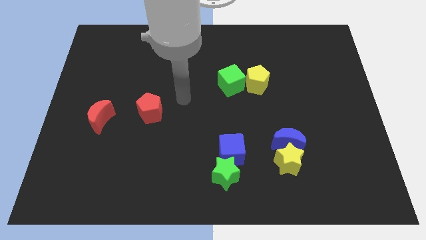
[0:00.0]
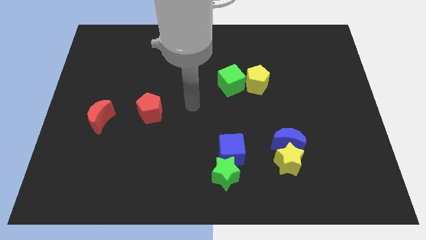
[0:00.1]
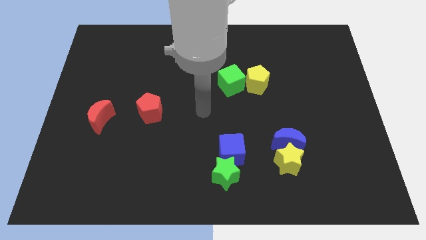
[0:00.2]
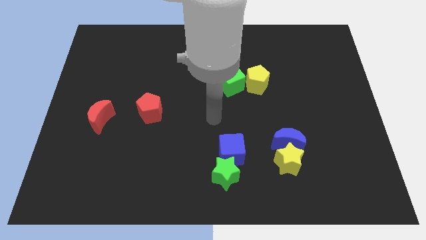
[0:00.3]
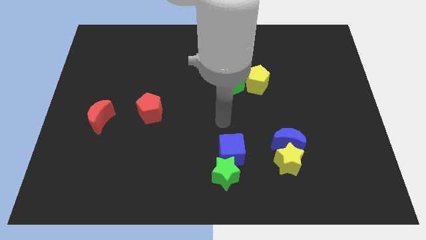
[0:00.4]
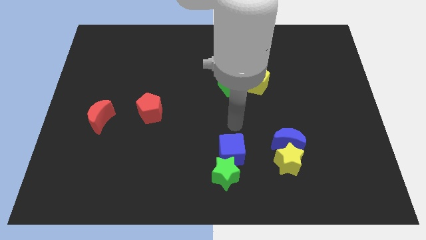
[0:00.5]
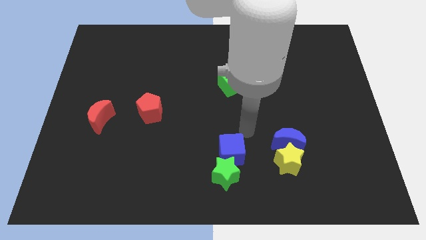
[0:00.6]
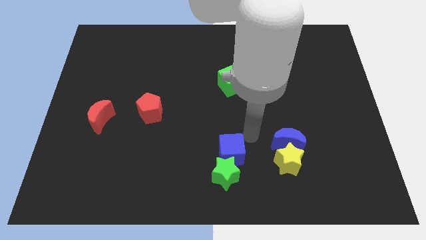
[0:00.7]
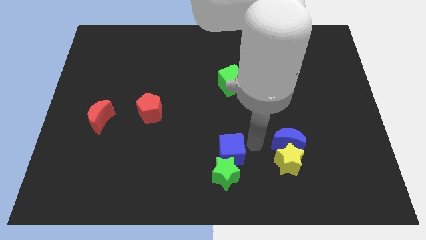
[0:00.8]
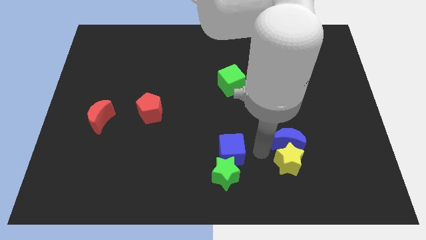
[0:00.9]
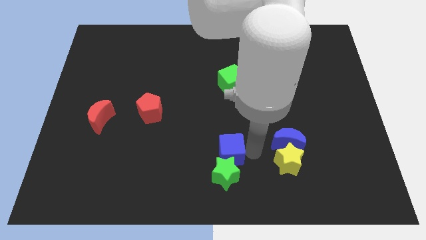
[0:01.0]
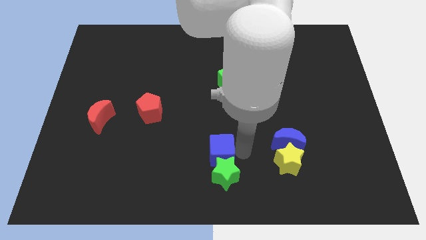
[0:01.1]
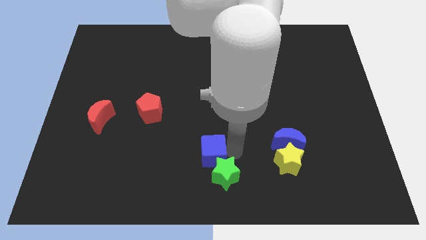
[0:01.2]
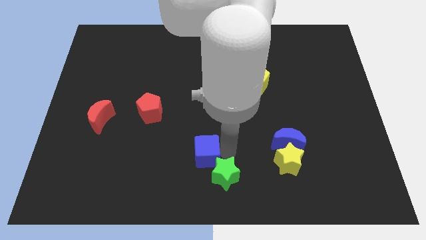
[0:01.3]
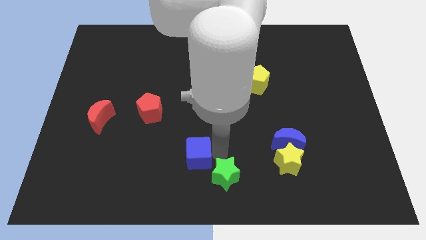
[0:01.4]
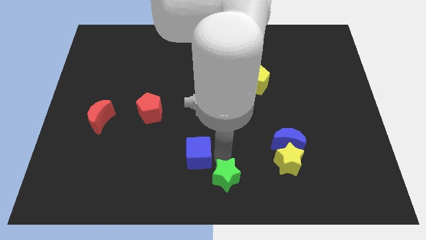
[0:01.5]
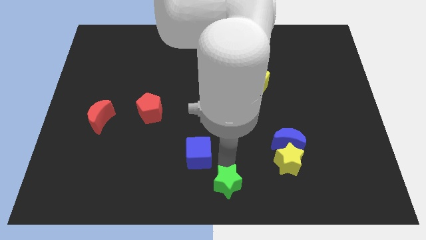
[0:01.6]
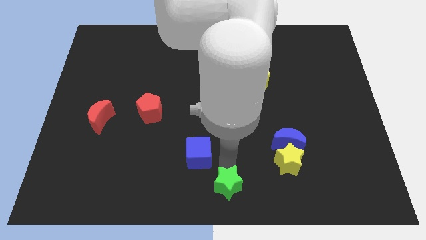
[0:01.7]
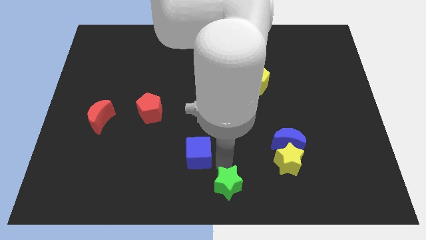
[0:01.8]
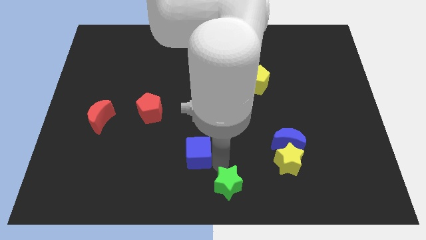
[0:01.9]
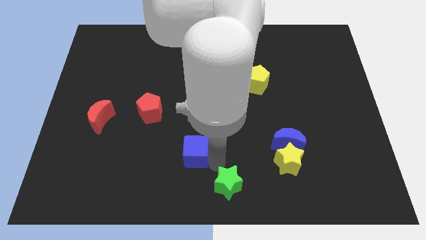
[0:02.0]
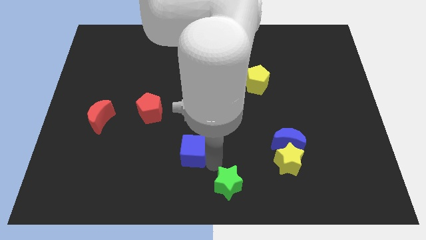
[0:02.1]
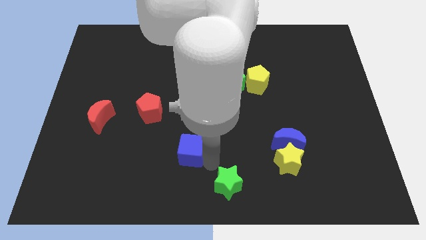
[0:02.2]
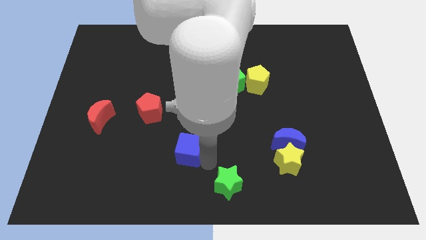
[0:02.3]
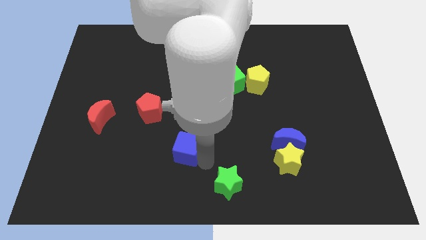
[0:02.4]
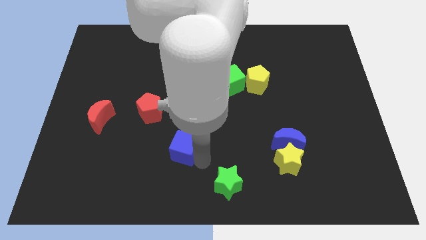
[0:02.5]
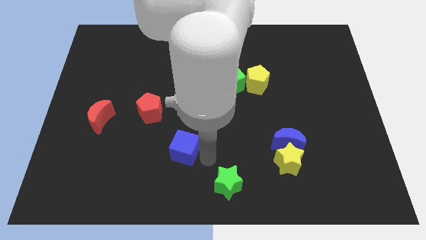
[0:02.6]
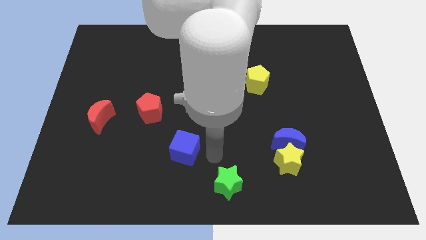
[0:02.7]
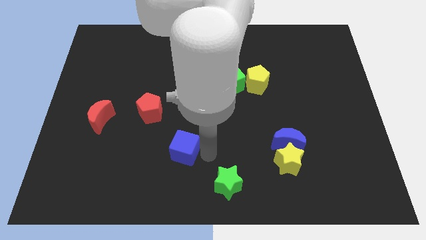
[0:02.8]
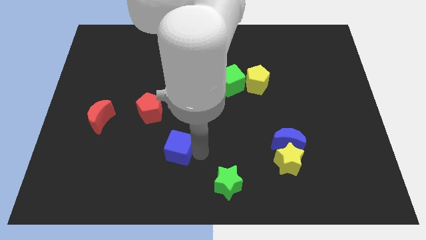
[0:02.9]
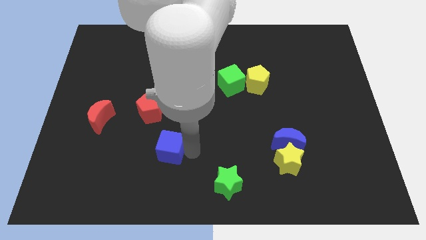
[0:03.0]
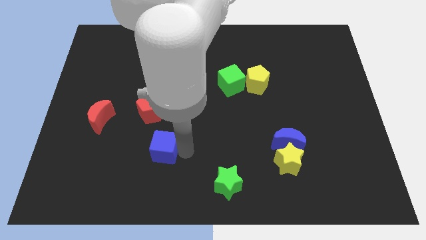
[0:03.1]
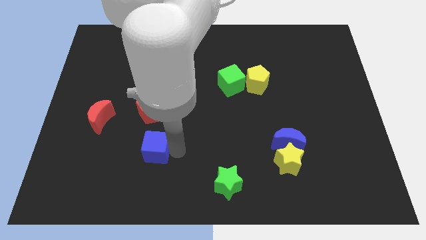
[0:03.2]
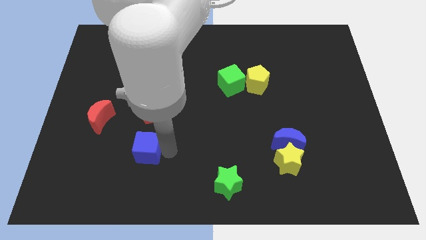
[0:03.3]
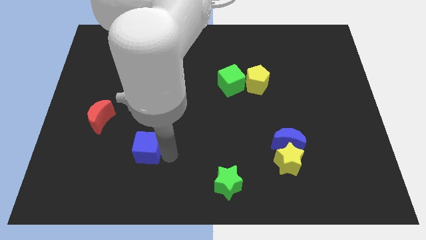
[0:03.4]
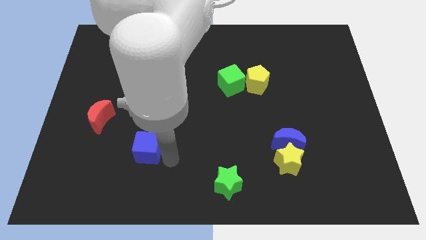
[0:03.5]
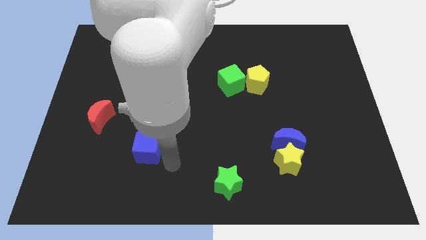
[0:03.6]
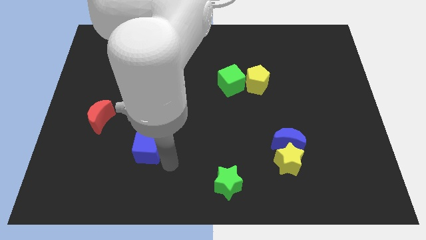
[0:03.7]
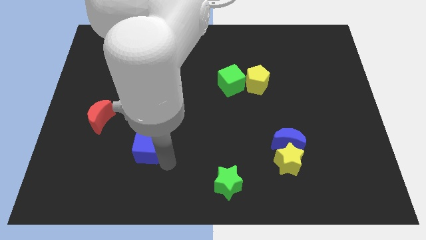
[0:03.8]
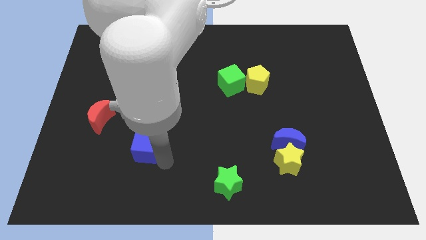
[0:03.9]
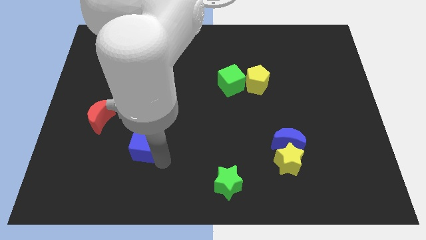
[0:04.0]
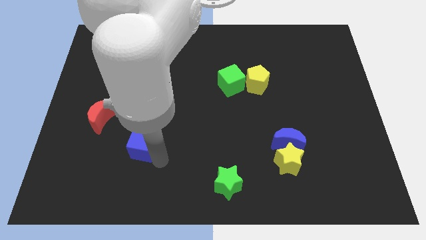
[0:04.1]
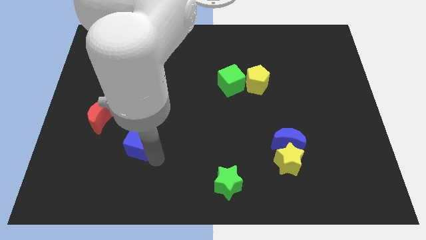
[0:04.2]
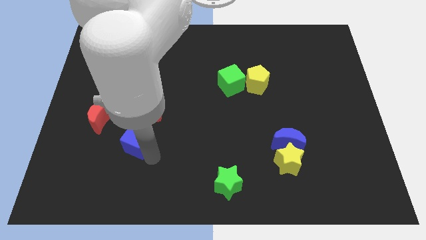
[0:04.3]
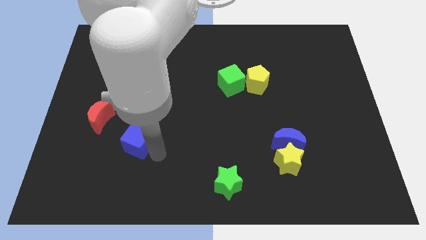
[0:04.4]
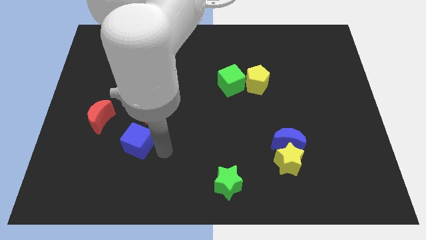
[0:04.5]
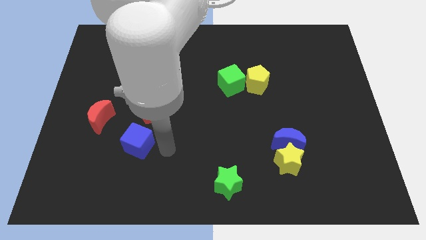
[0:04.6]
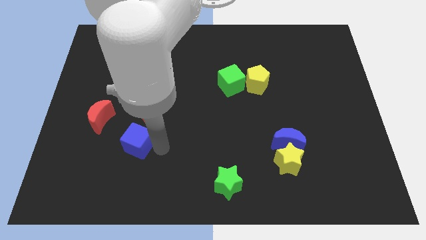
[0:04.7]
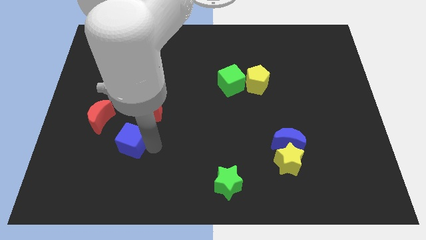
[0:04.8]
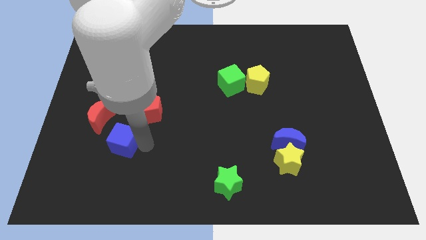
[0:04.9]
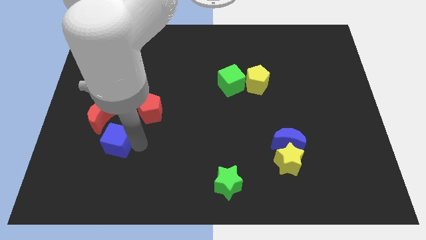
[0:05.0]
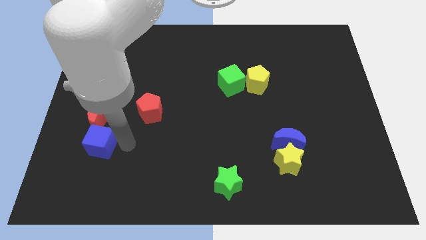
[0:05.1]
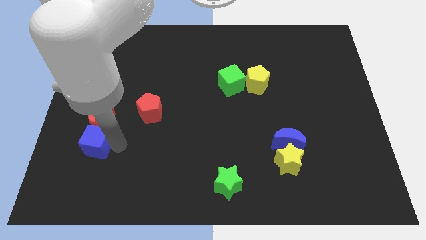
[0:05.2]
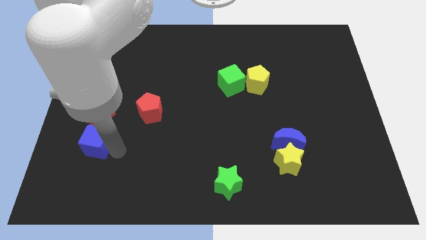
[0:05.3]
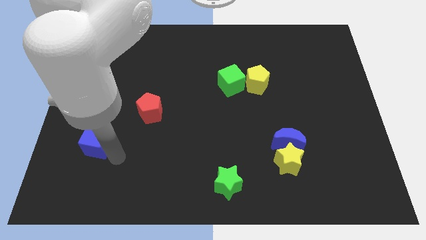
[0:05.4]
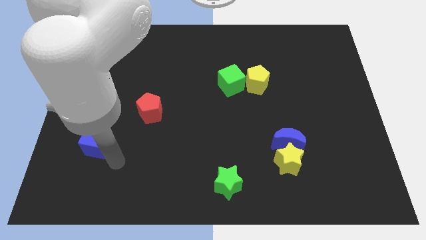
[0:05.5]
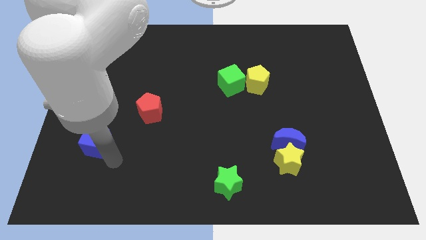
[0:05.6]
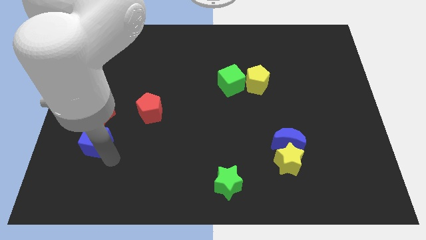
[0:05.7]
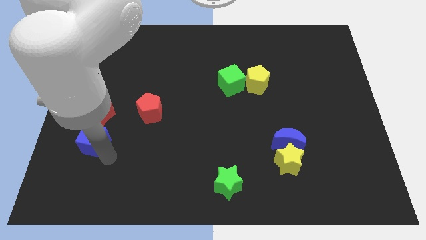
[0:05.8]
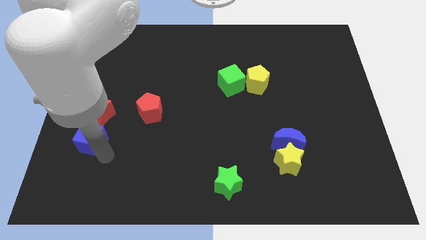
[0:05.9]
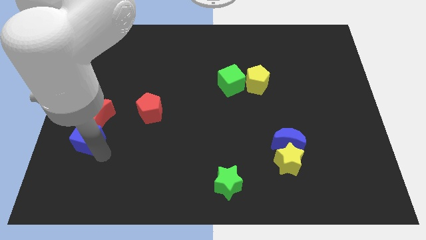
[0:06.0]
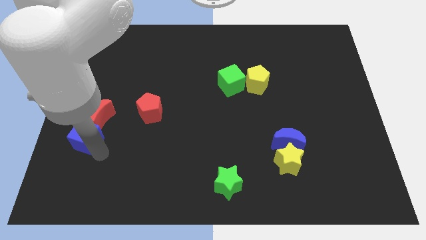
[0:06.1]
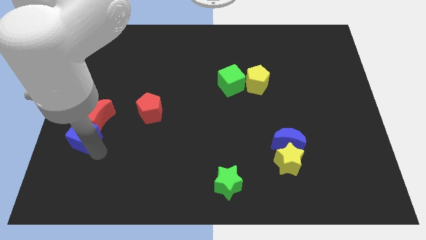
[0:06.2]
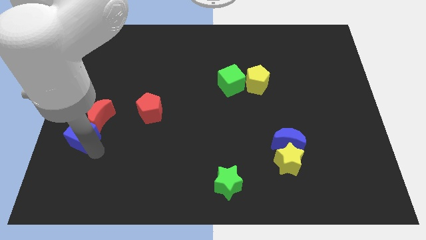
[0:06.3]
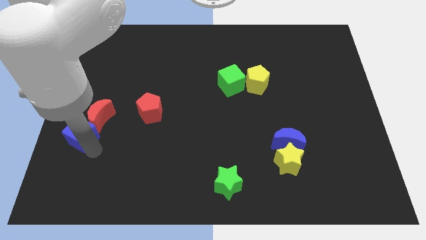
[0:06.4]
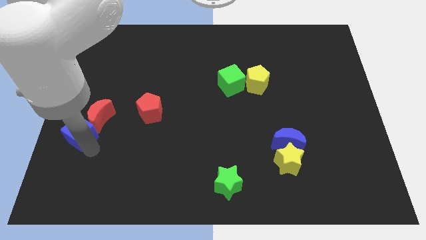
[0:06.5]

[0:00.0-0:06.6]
put the blue cube to the left side
